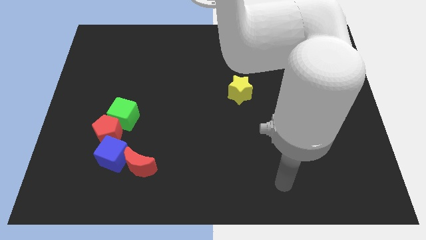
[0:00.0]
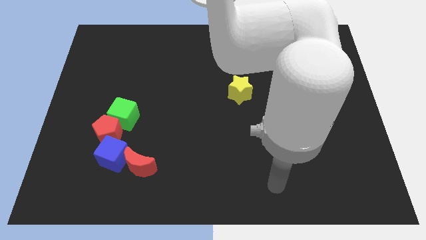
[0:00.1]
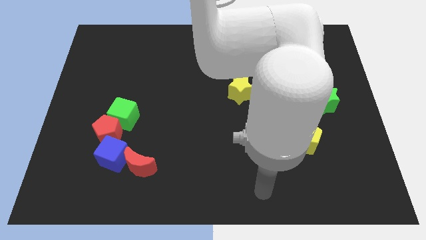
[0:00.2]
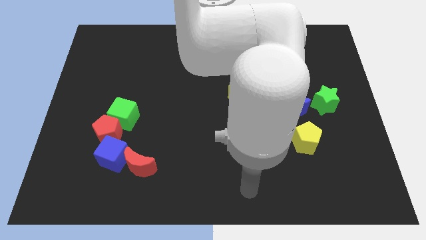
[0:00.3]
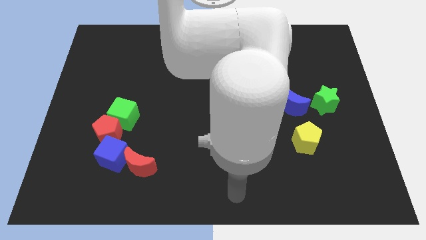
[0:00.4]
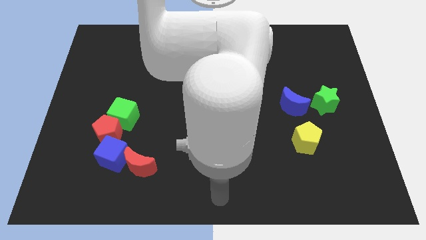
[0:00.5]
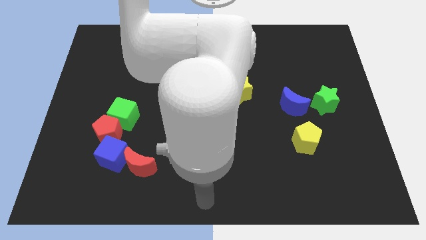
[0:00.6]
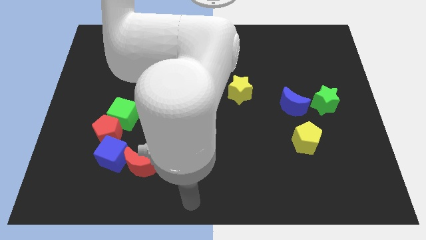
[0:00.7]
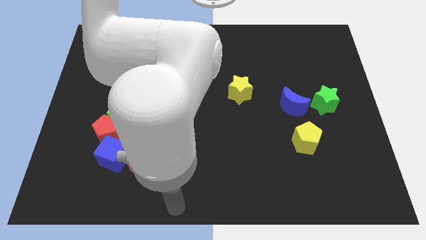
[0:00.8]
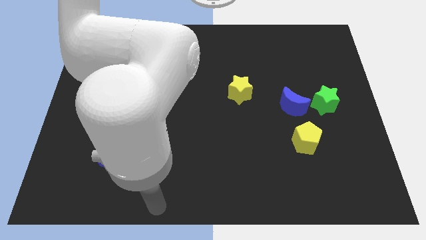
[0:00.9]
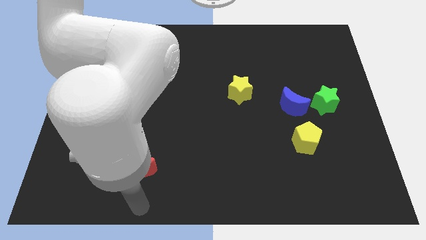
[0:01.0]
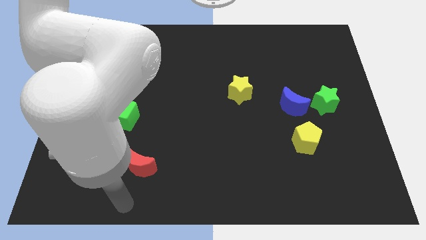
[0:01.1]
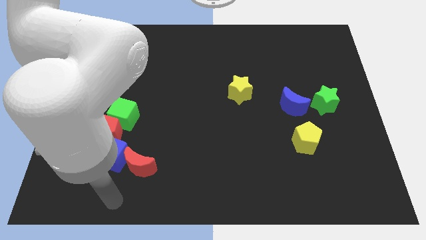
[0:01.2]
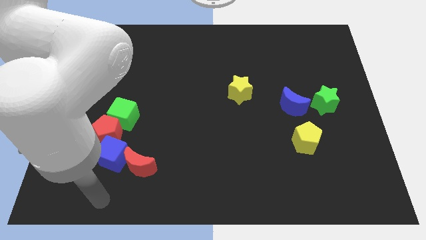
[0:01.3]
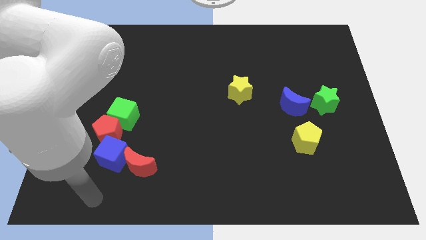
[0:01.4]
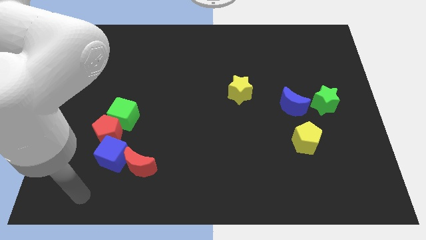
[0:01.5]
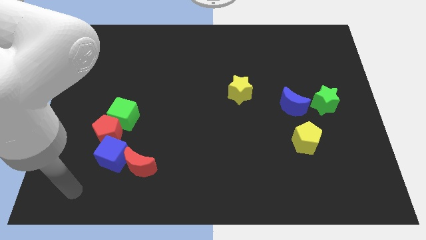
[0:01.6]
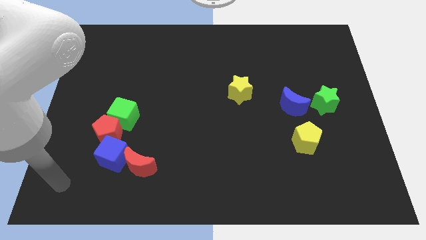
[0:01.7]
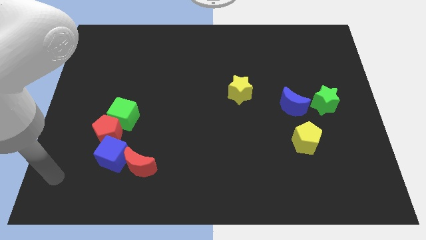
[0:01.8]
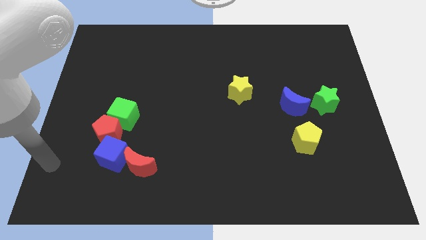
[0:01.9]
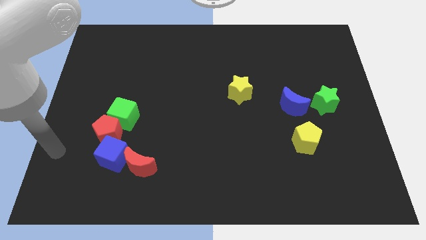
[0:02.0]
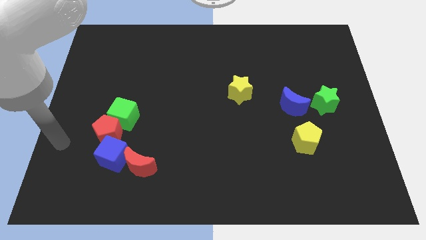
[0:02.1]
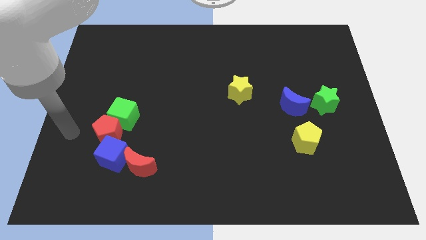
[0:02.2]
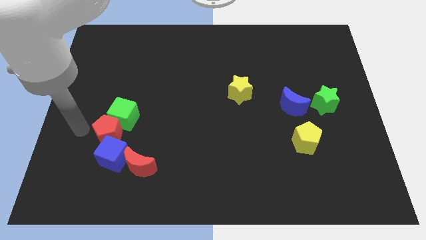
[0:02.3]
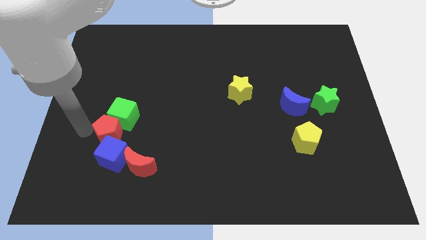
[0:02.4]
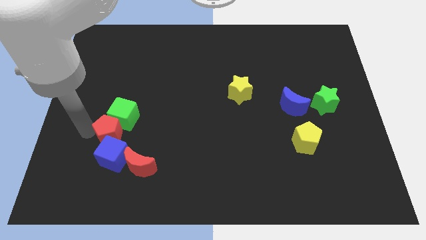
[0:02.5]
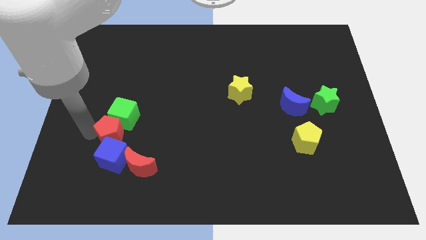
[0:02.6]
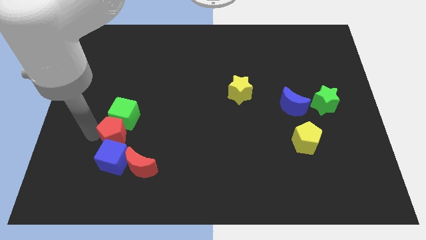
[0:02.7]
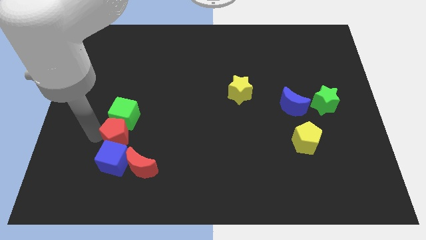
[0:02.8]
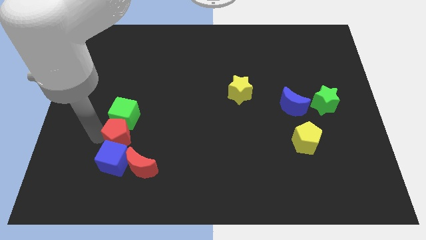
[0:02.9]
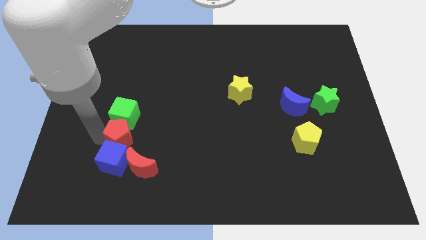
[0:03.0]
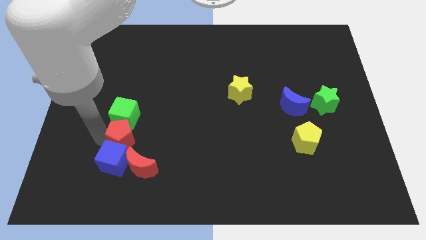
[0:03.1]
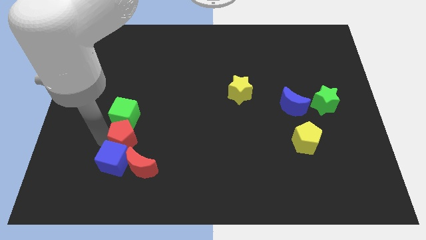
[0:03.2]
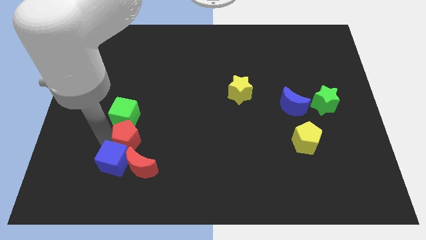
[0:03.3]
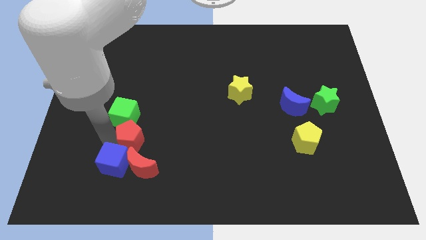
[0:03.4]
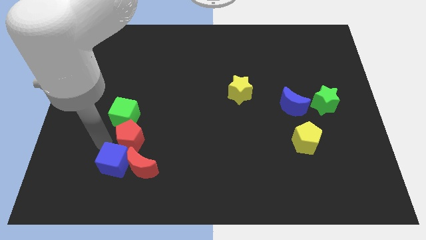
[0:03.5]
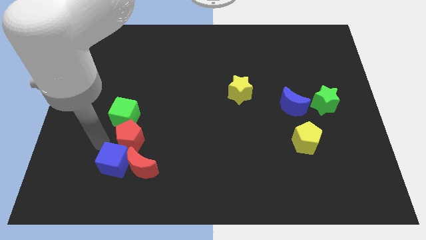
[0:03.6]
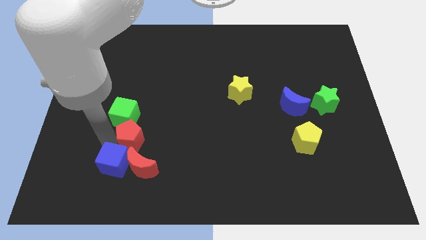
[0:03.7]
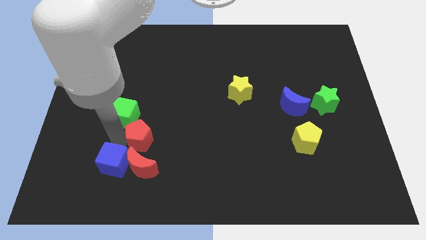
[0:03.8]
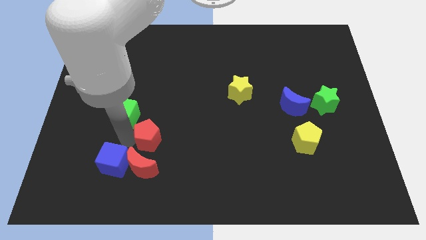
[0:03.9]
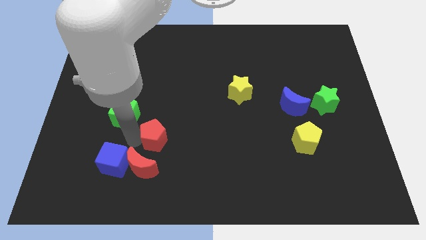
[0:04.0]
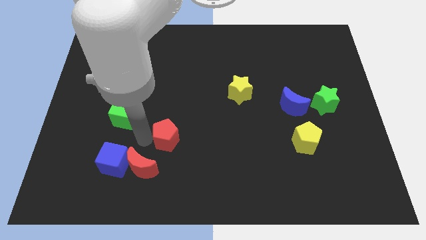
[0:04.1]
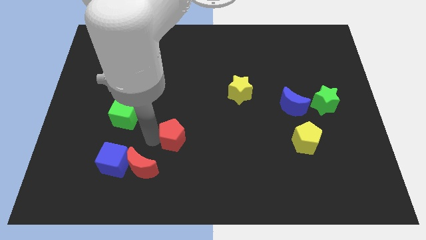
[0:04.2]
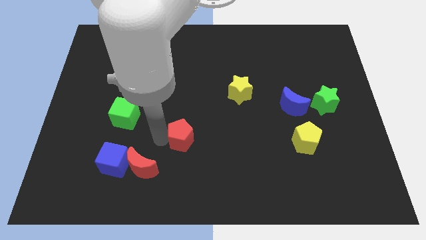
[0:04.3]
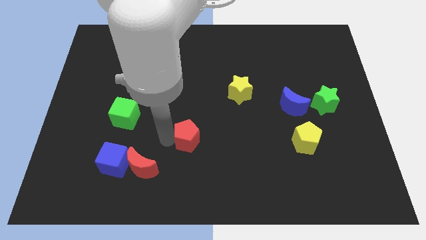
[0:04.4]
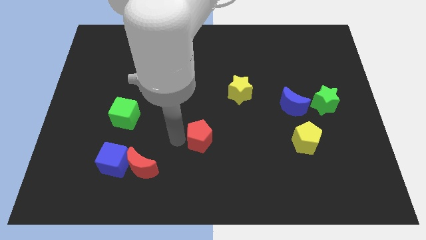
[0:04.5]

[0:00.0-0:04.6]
move the red pentagon to the right

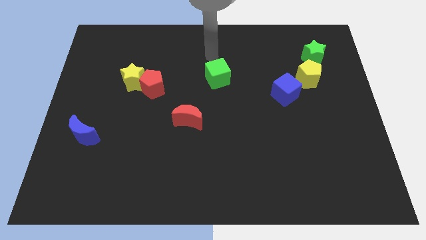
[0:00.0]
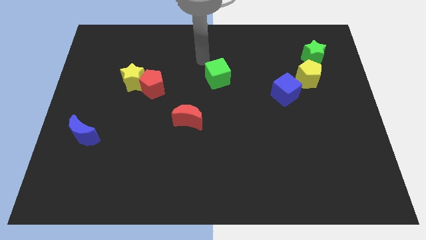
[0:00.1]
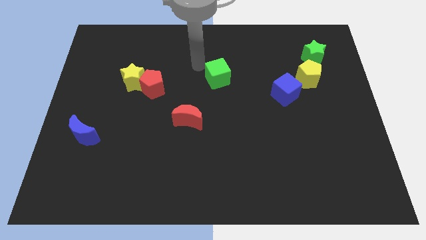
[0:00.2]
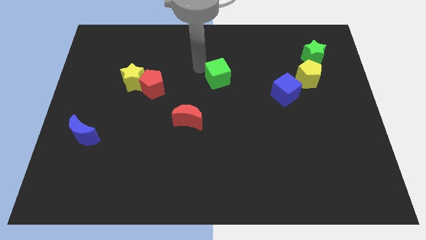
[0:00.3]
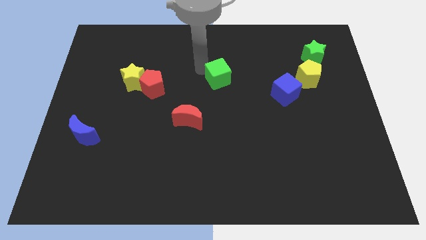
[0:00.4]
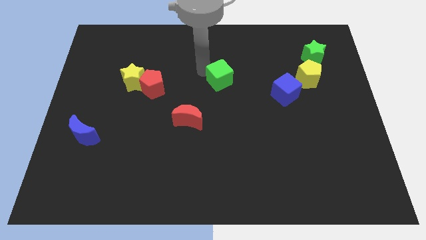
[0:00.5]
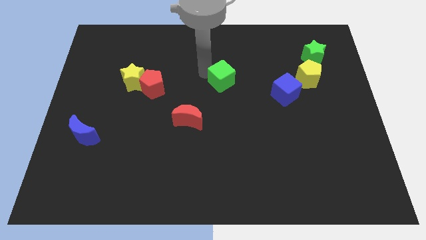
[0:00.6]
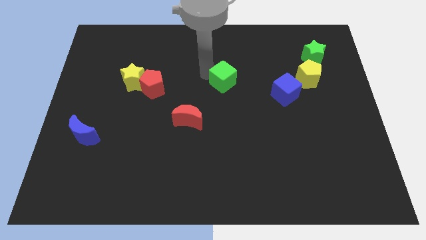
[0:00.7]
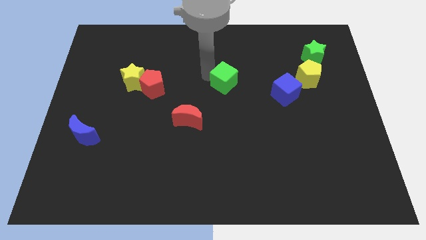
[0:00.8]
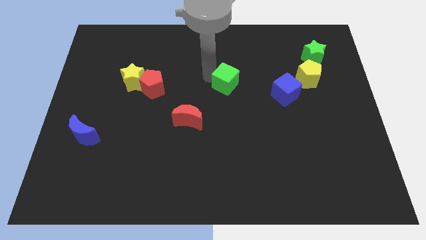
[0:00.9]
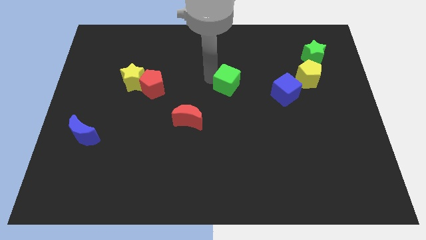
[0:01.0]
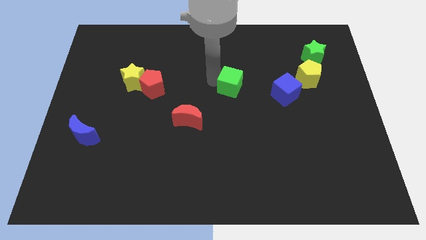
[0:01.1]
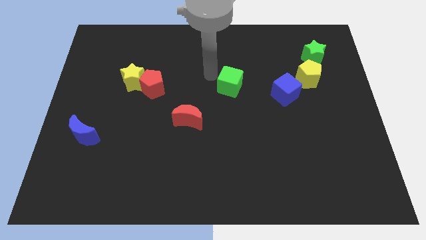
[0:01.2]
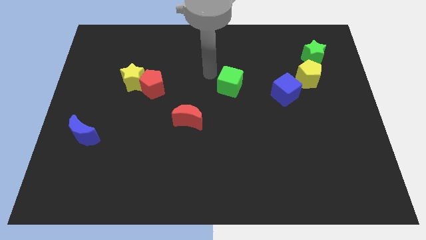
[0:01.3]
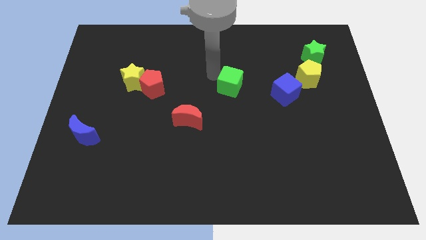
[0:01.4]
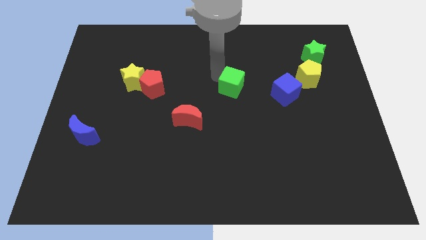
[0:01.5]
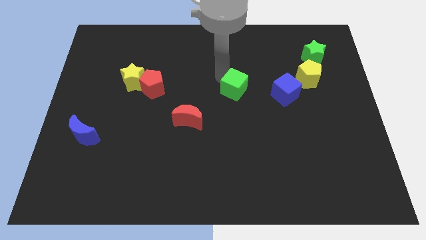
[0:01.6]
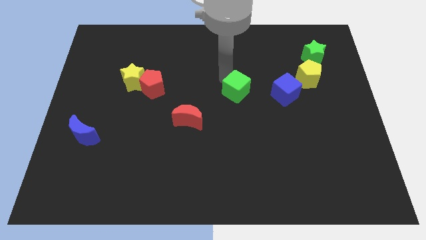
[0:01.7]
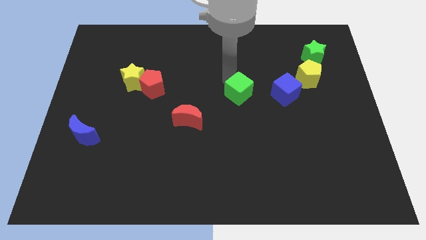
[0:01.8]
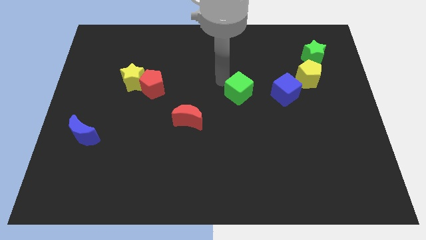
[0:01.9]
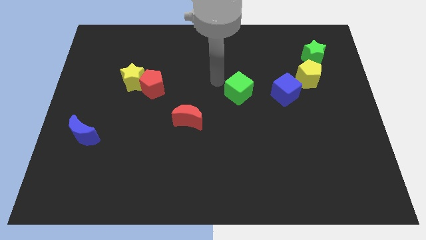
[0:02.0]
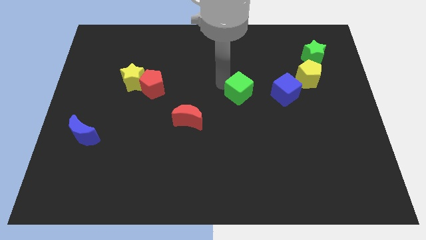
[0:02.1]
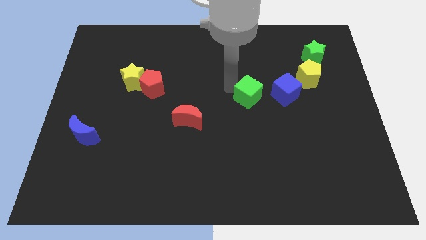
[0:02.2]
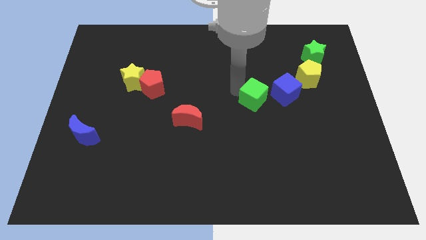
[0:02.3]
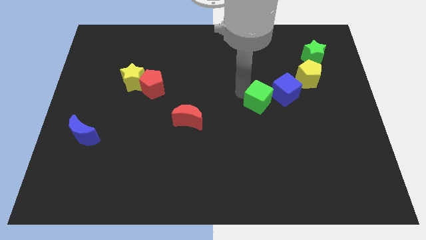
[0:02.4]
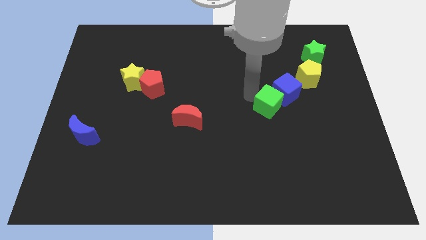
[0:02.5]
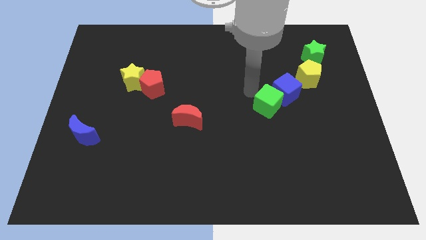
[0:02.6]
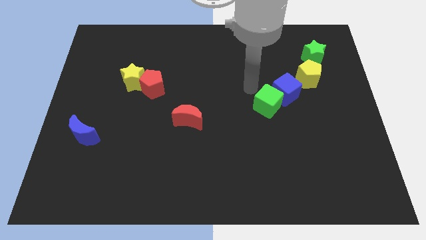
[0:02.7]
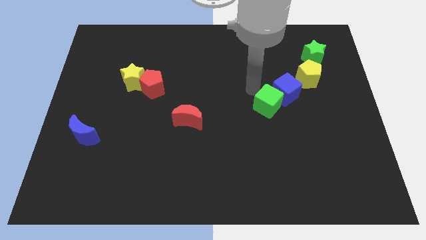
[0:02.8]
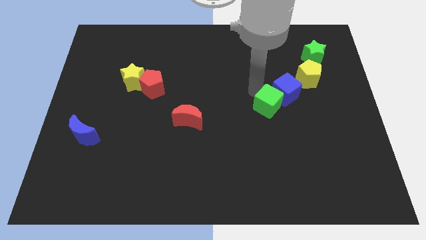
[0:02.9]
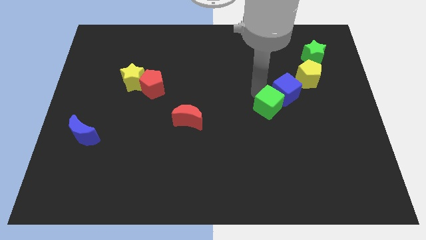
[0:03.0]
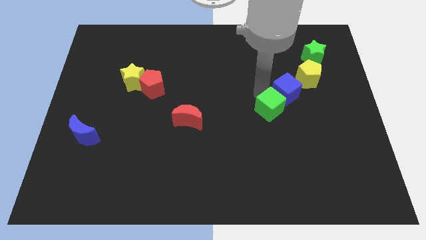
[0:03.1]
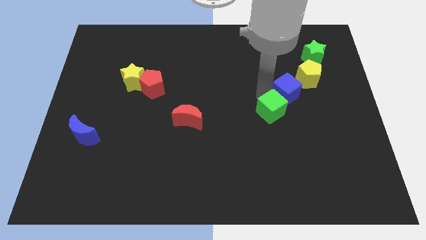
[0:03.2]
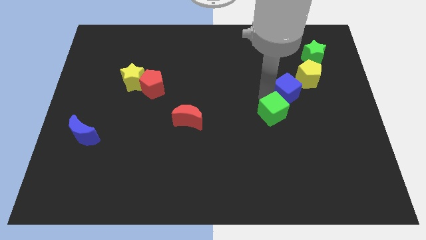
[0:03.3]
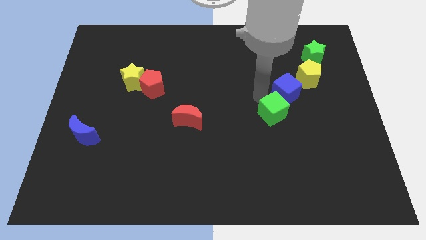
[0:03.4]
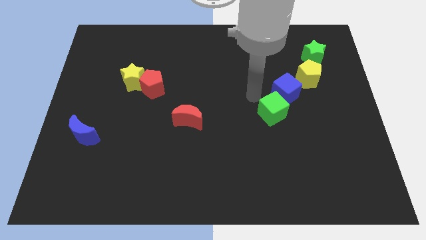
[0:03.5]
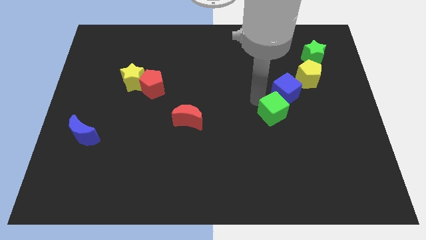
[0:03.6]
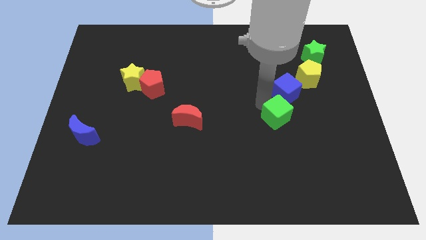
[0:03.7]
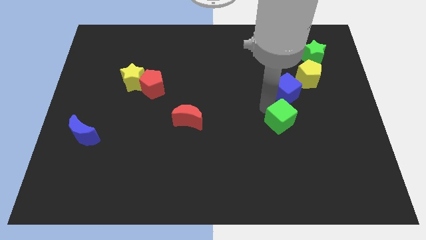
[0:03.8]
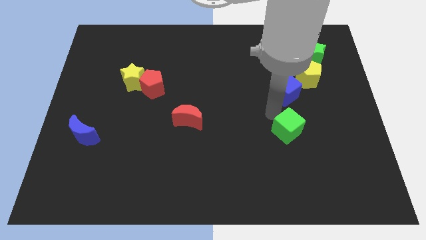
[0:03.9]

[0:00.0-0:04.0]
push the green cube diagonally downwards and right
